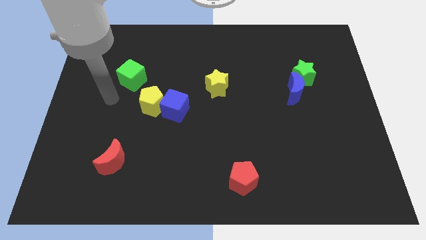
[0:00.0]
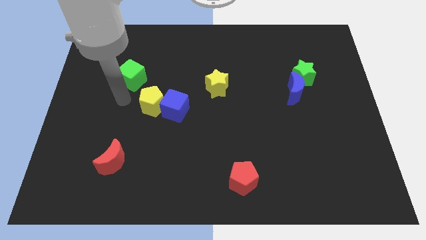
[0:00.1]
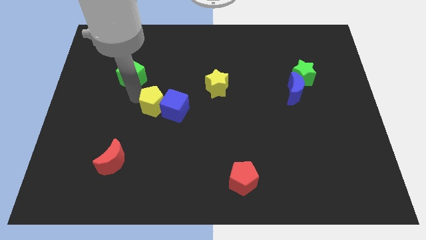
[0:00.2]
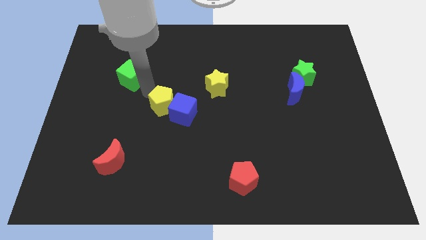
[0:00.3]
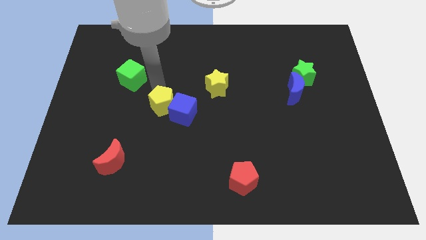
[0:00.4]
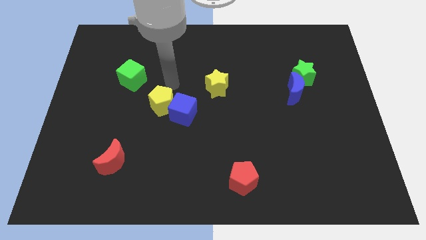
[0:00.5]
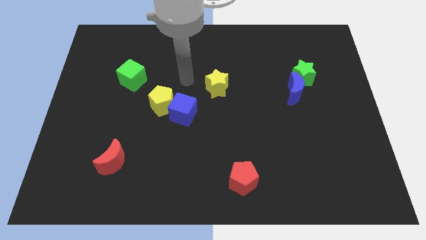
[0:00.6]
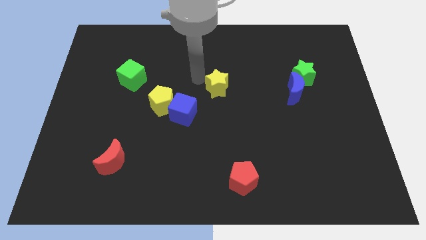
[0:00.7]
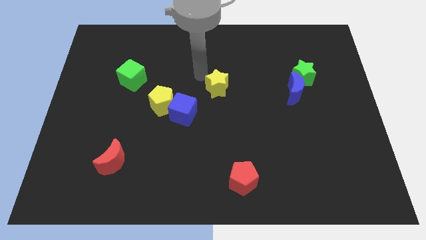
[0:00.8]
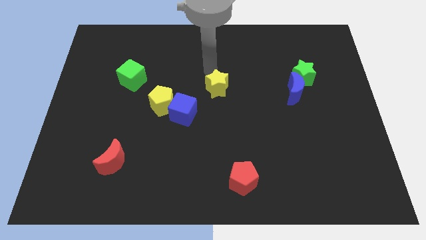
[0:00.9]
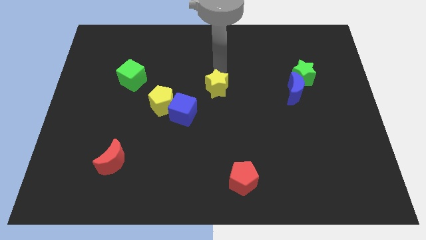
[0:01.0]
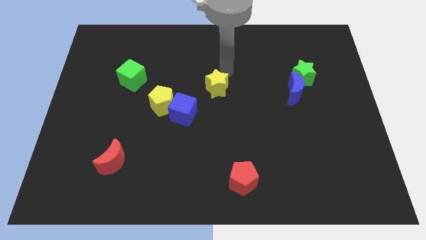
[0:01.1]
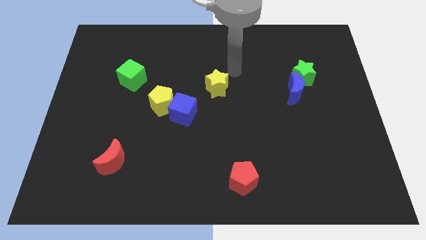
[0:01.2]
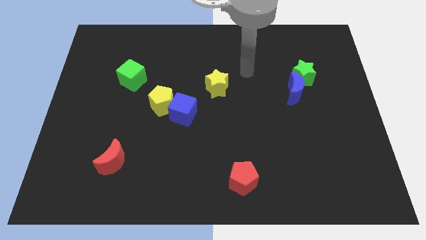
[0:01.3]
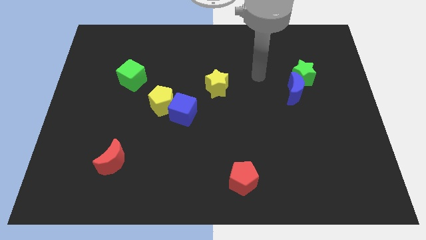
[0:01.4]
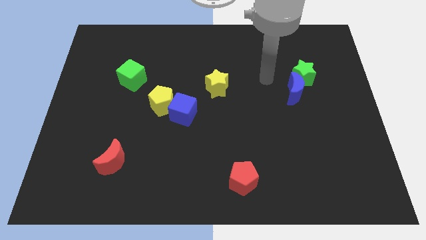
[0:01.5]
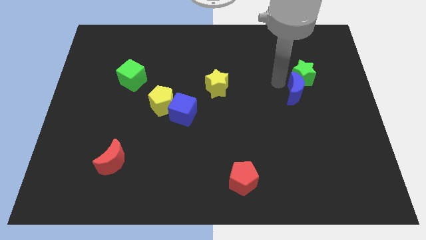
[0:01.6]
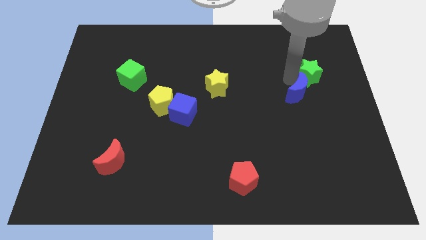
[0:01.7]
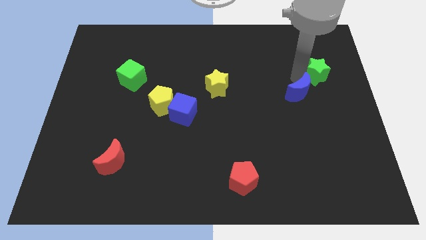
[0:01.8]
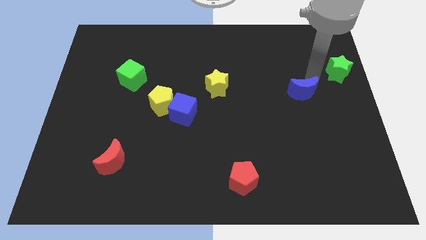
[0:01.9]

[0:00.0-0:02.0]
separate the blue moon from the green star

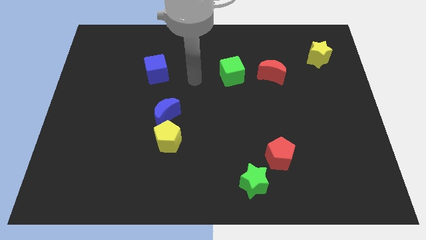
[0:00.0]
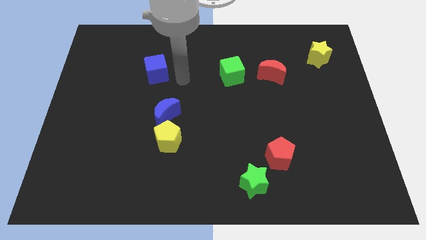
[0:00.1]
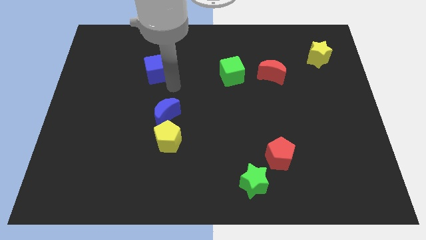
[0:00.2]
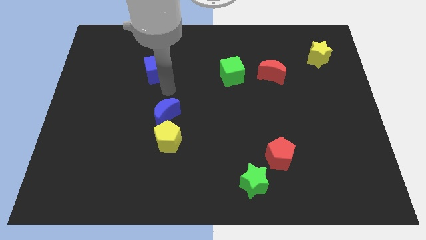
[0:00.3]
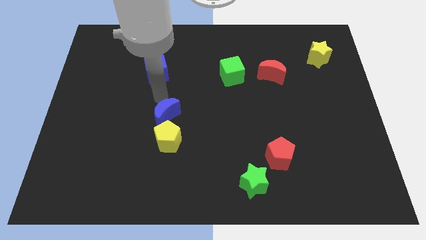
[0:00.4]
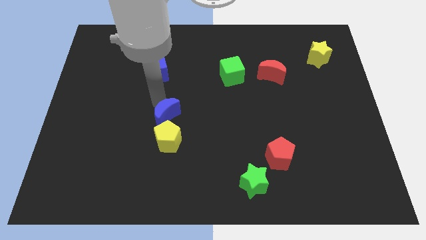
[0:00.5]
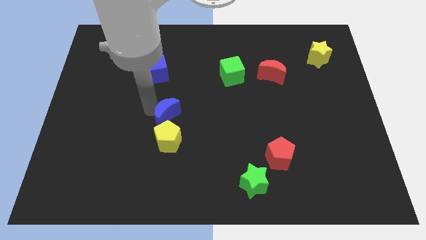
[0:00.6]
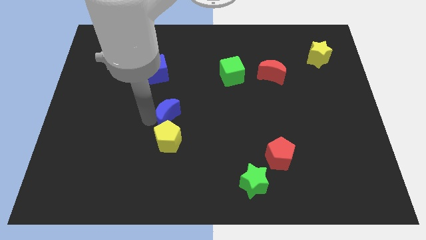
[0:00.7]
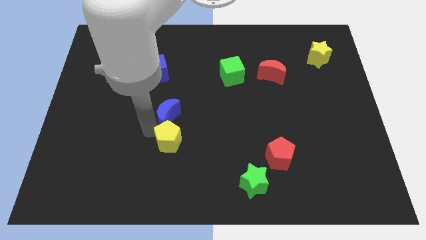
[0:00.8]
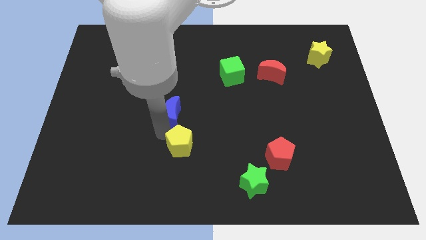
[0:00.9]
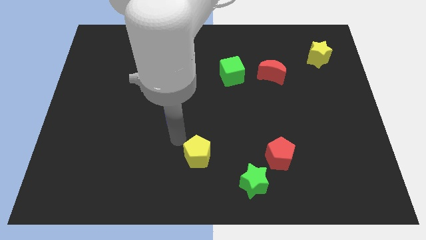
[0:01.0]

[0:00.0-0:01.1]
pull the blue moon apart from the yellow pentagon

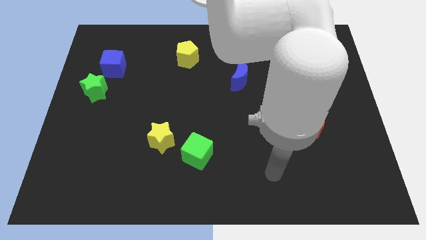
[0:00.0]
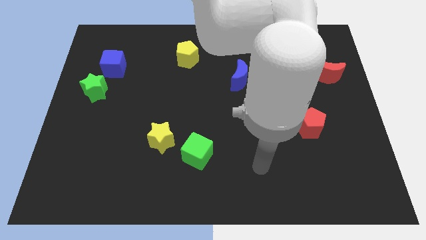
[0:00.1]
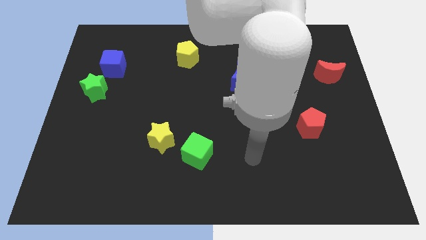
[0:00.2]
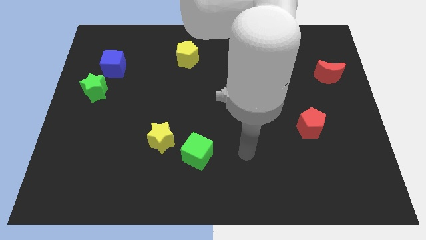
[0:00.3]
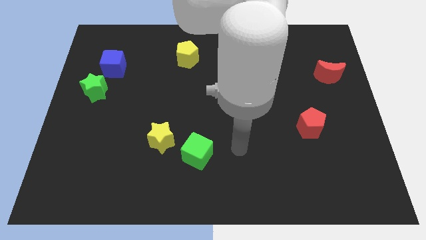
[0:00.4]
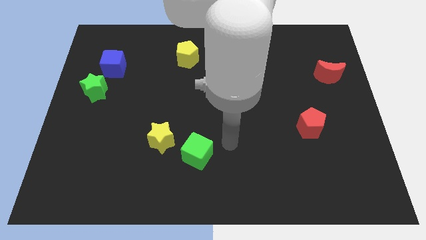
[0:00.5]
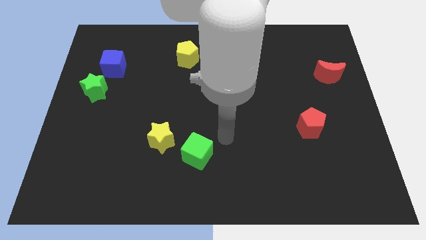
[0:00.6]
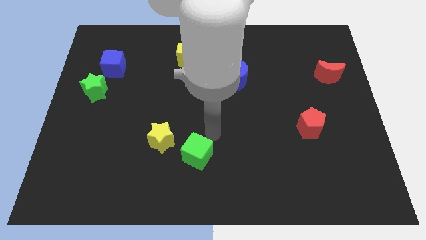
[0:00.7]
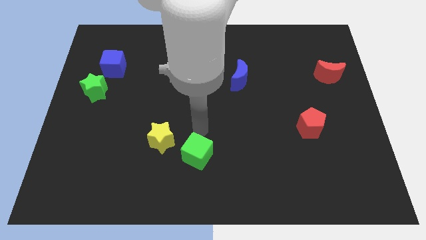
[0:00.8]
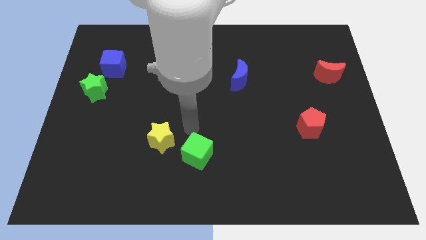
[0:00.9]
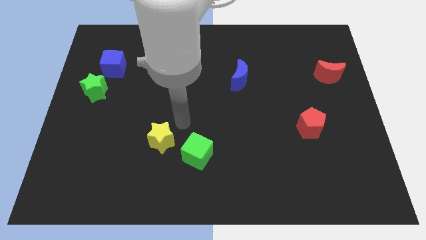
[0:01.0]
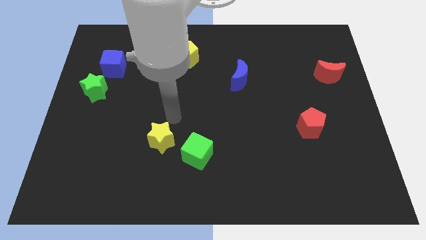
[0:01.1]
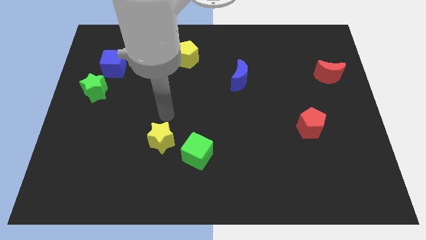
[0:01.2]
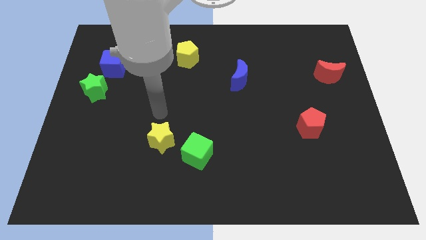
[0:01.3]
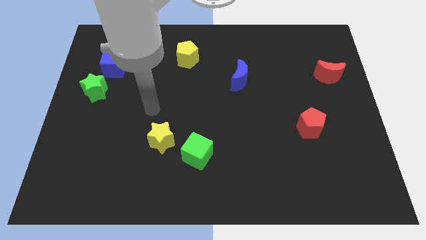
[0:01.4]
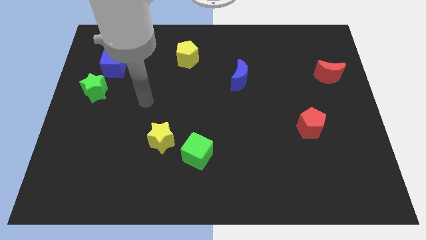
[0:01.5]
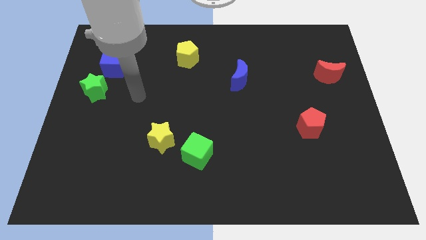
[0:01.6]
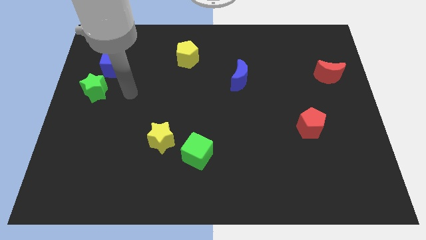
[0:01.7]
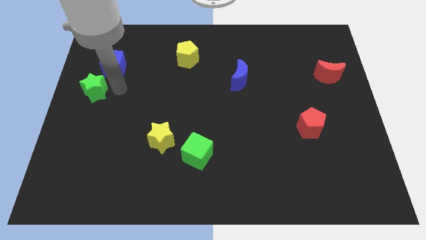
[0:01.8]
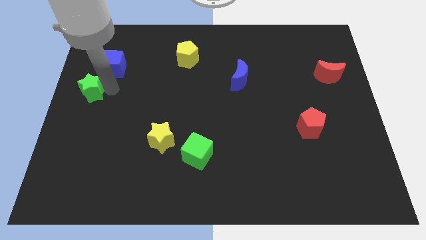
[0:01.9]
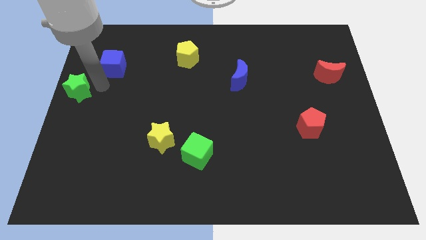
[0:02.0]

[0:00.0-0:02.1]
separate the blue cube from the green star

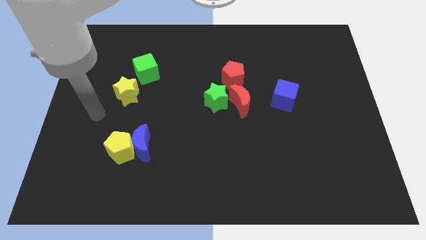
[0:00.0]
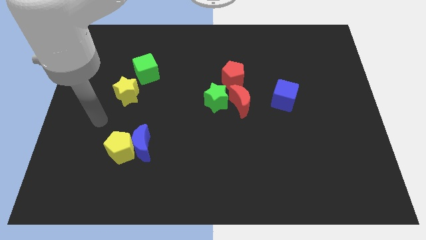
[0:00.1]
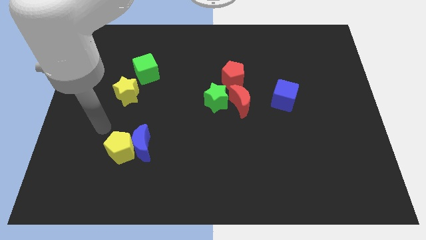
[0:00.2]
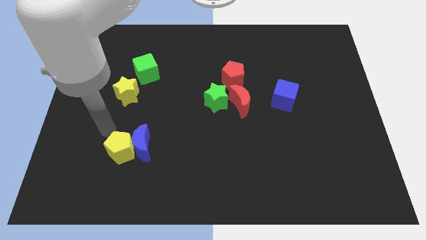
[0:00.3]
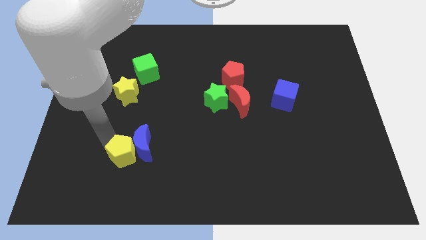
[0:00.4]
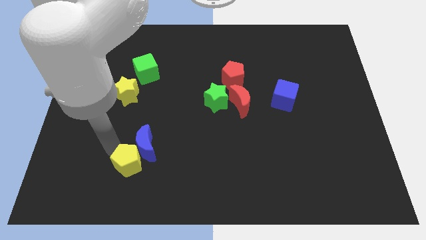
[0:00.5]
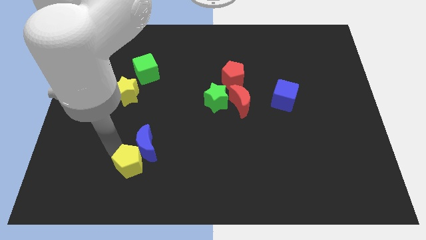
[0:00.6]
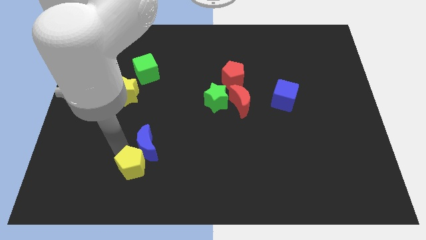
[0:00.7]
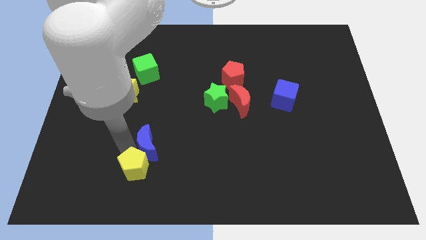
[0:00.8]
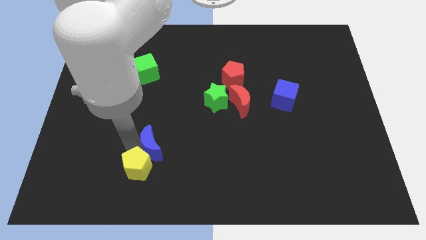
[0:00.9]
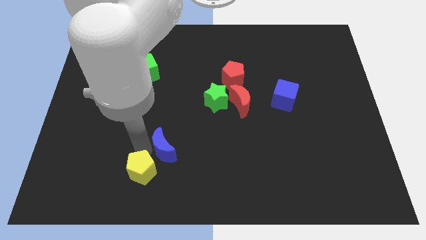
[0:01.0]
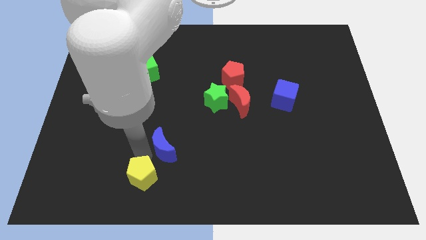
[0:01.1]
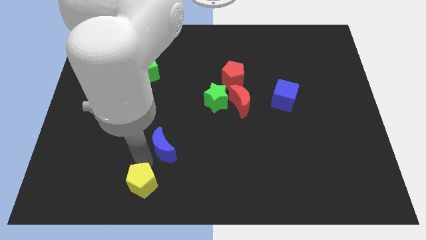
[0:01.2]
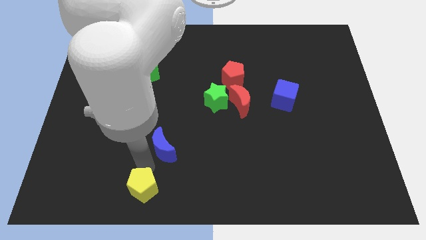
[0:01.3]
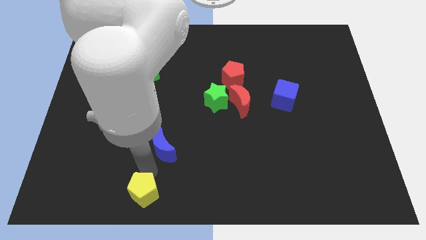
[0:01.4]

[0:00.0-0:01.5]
move the blue moon away from the yellow pentagon

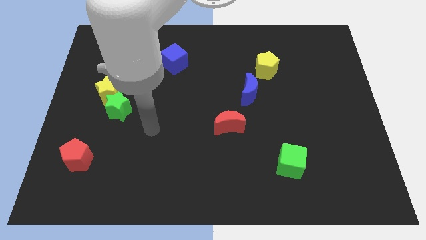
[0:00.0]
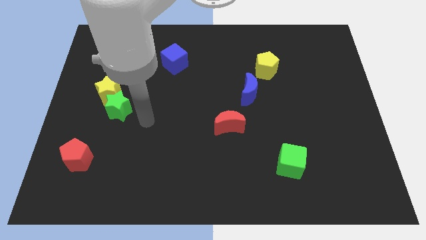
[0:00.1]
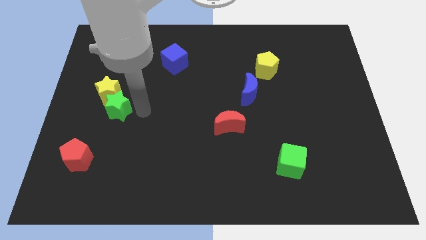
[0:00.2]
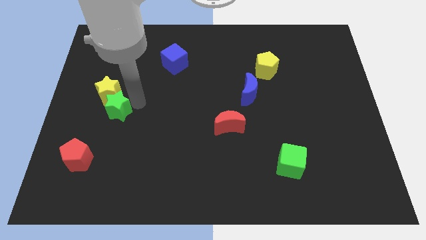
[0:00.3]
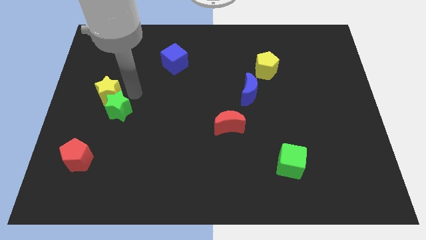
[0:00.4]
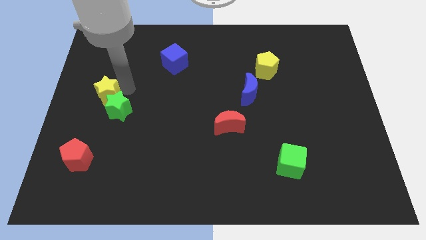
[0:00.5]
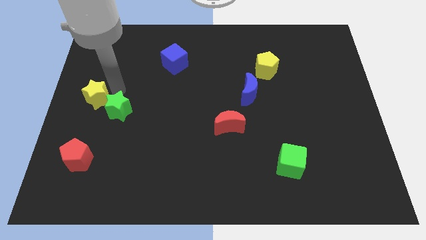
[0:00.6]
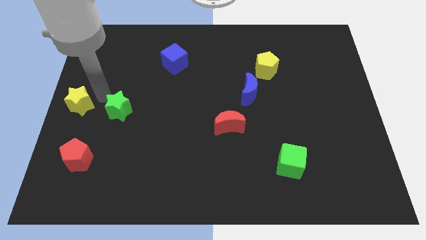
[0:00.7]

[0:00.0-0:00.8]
separate the green star from the yellow star

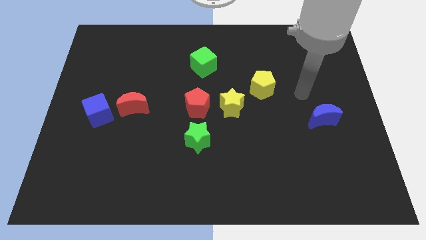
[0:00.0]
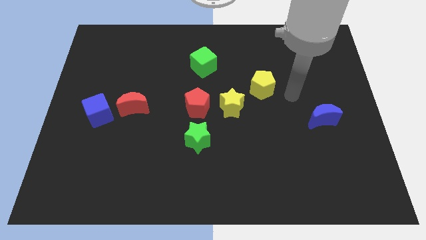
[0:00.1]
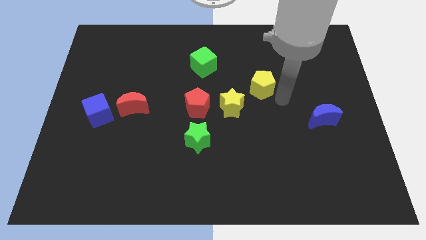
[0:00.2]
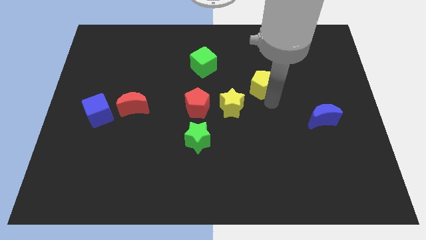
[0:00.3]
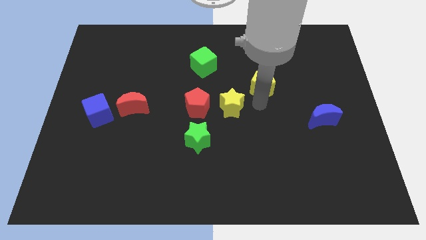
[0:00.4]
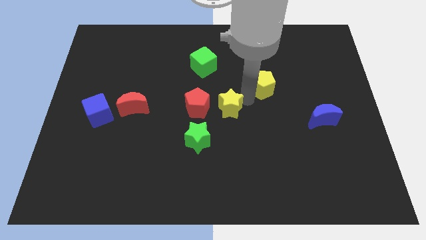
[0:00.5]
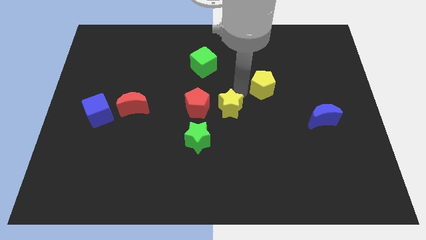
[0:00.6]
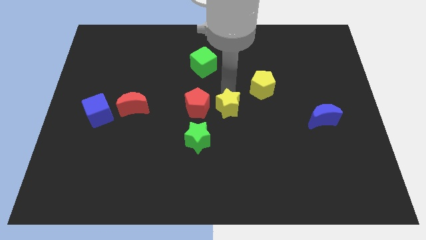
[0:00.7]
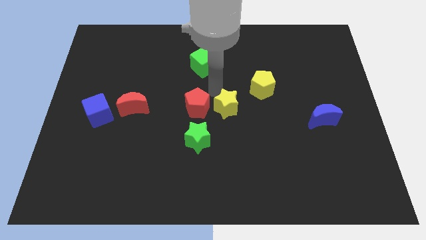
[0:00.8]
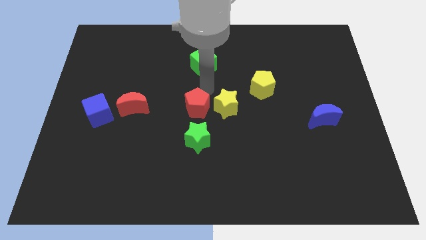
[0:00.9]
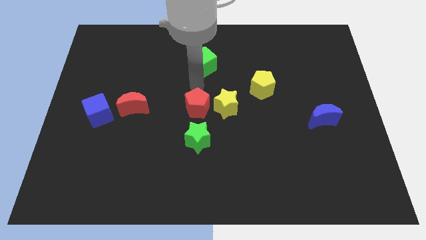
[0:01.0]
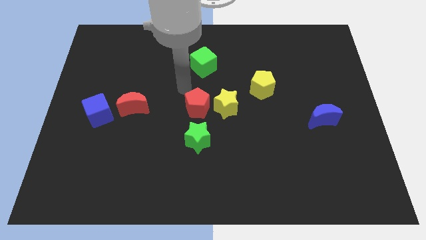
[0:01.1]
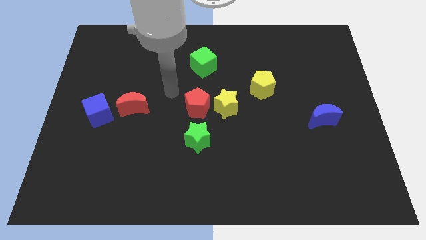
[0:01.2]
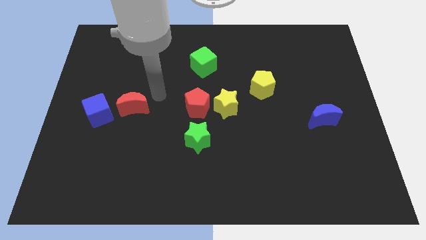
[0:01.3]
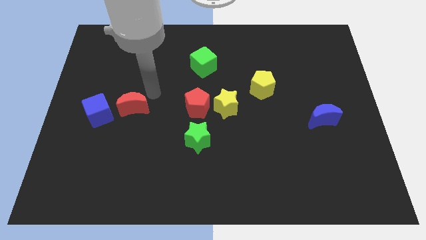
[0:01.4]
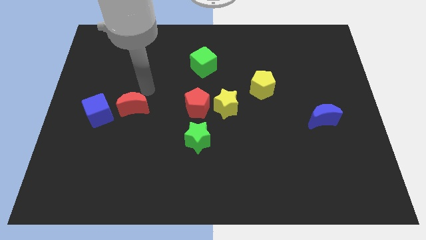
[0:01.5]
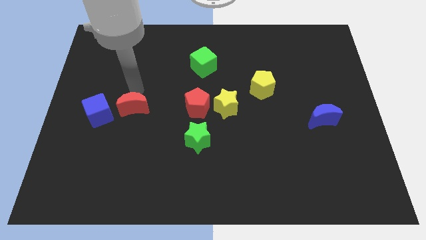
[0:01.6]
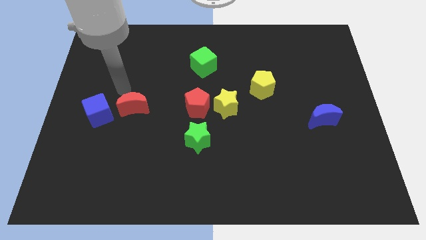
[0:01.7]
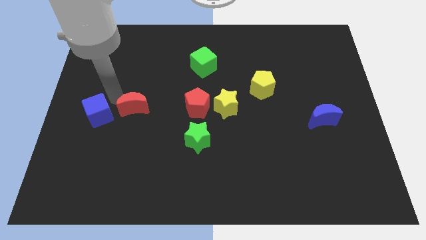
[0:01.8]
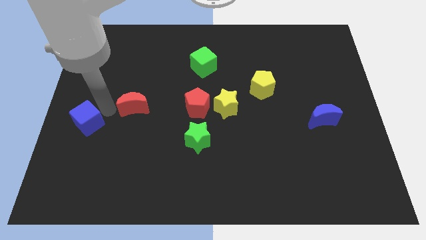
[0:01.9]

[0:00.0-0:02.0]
pull the red moon apart from the blue cube
